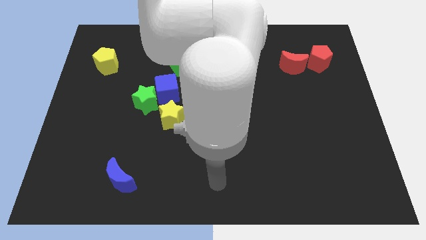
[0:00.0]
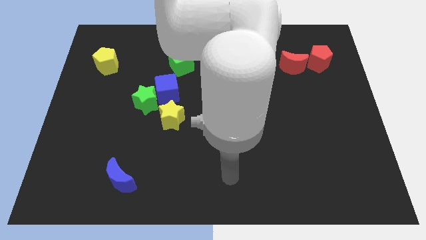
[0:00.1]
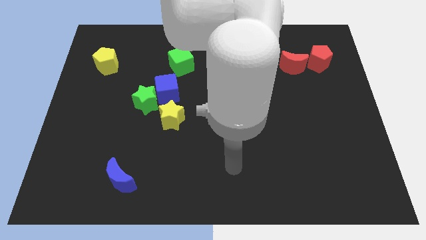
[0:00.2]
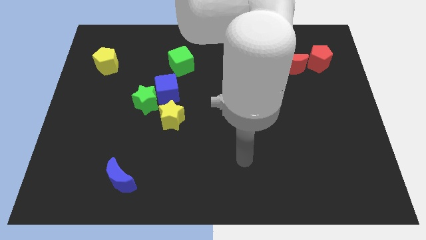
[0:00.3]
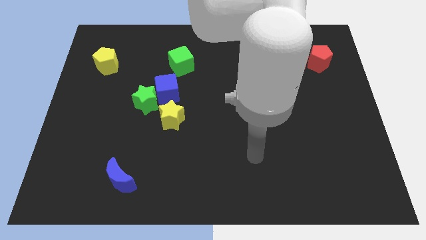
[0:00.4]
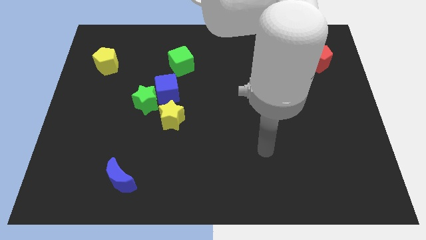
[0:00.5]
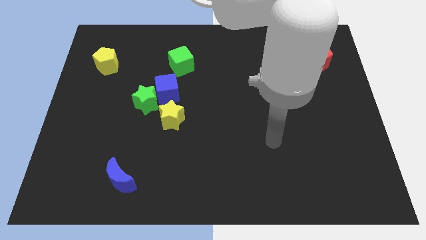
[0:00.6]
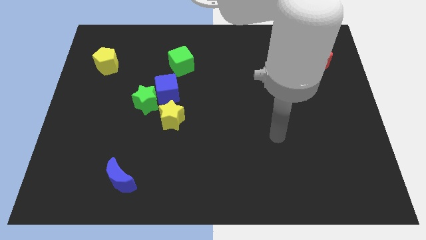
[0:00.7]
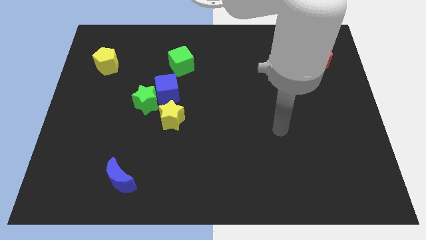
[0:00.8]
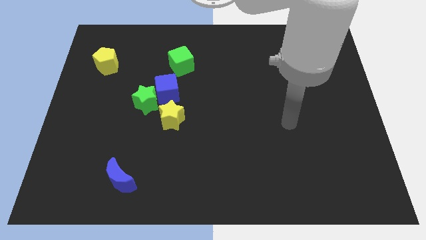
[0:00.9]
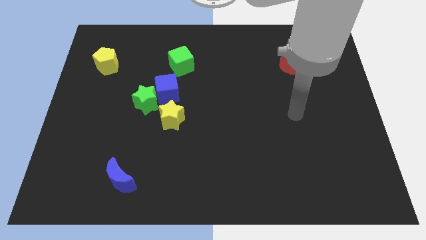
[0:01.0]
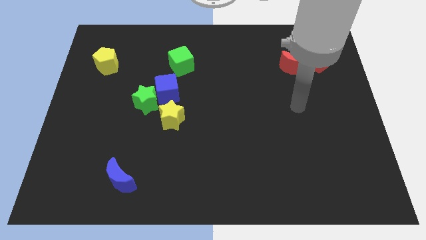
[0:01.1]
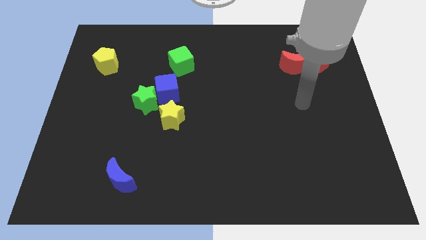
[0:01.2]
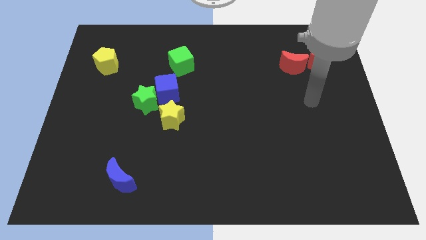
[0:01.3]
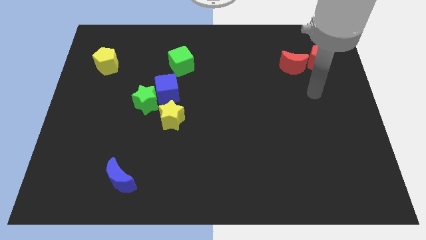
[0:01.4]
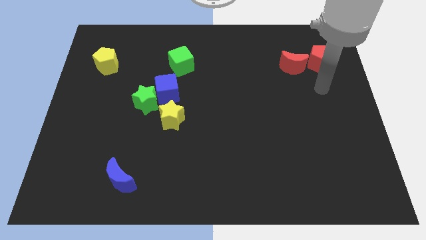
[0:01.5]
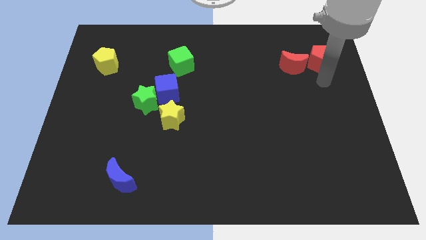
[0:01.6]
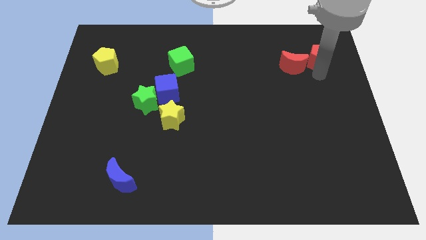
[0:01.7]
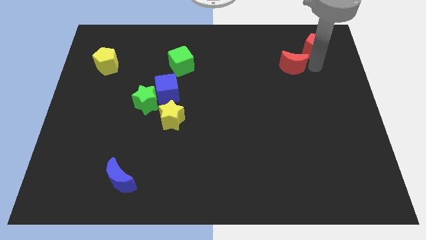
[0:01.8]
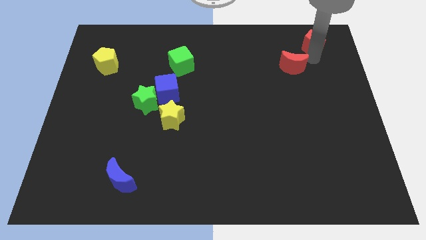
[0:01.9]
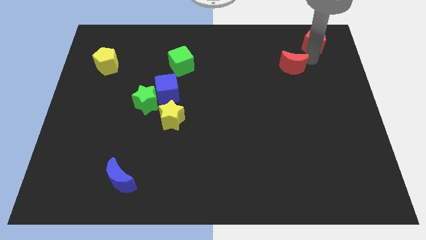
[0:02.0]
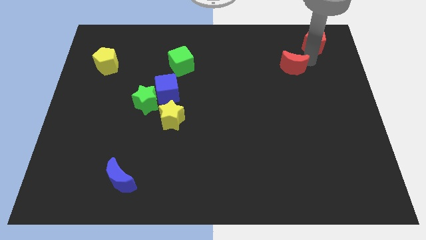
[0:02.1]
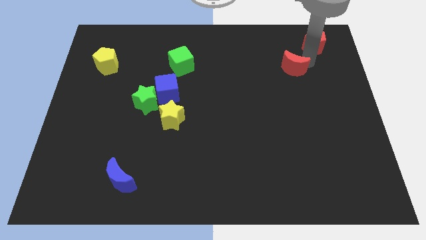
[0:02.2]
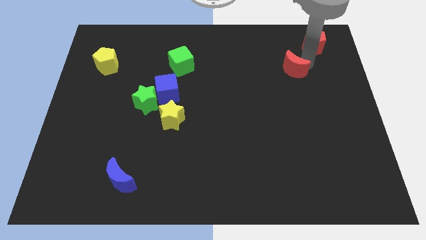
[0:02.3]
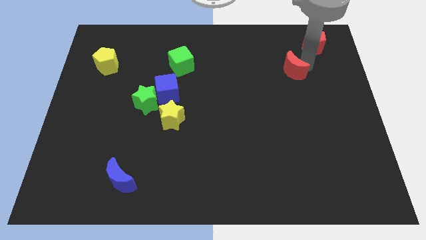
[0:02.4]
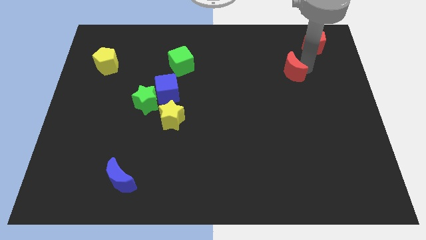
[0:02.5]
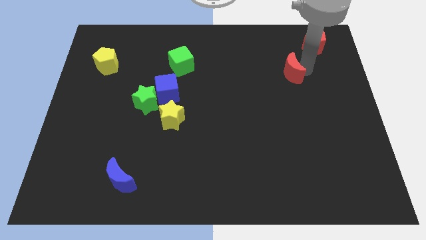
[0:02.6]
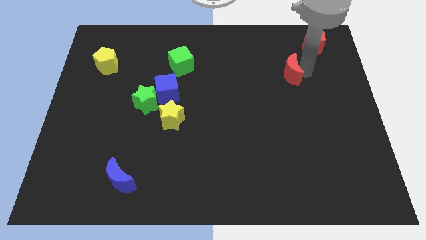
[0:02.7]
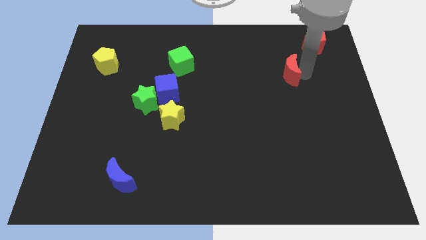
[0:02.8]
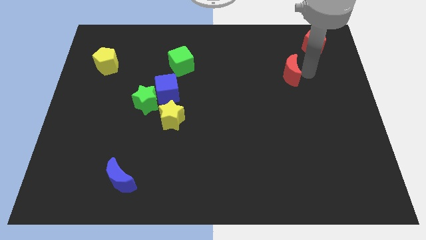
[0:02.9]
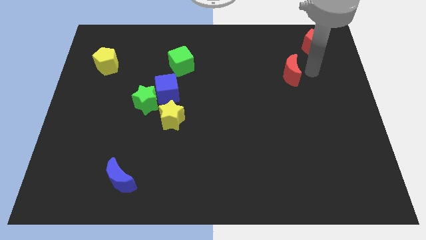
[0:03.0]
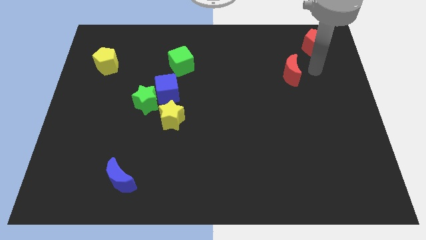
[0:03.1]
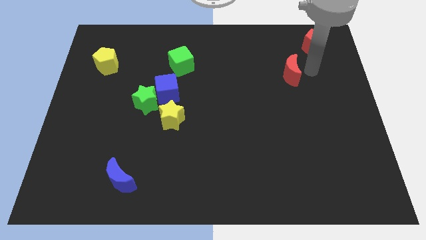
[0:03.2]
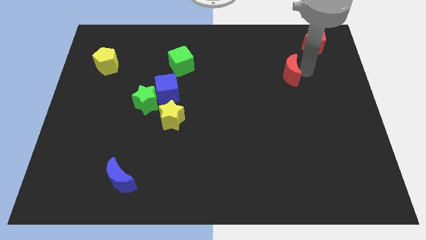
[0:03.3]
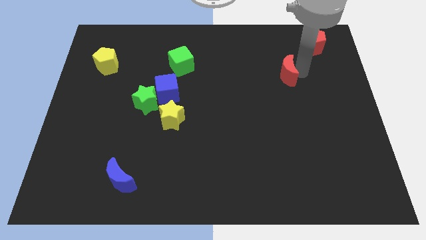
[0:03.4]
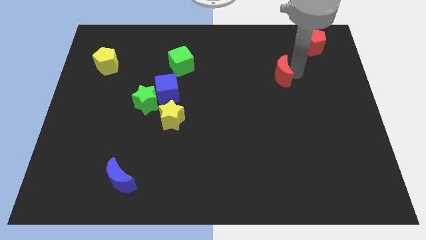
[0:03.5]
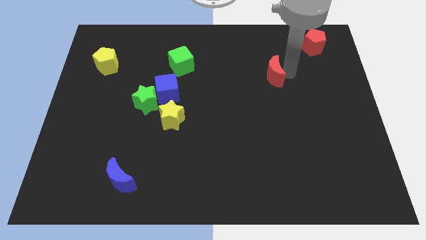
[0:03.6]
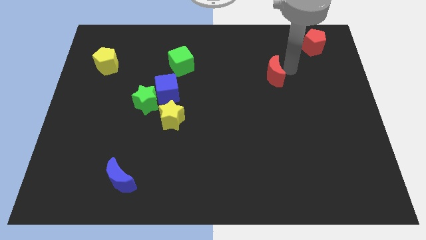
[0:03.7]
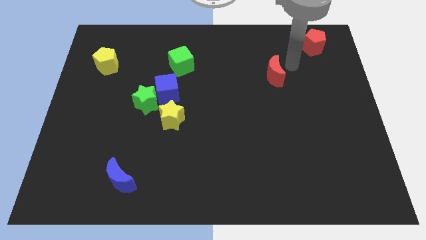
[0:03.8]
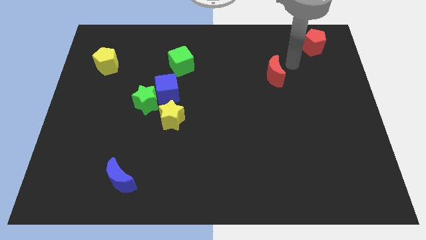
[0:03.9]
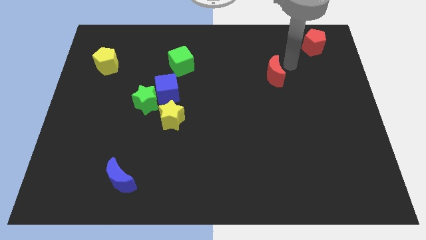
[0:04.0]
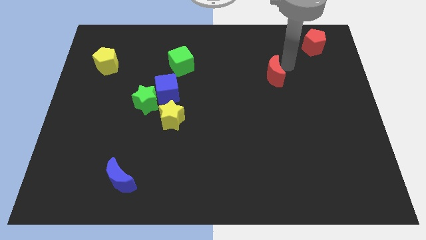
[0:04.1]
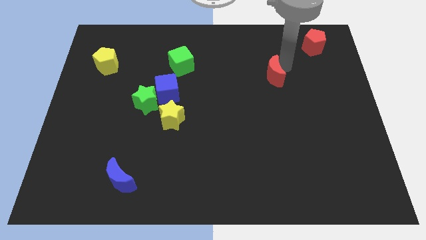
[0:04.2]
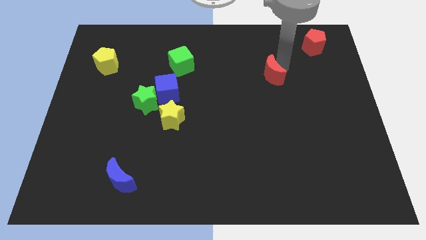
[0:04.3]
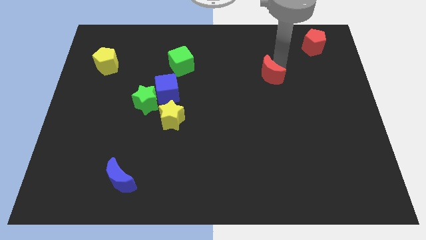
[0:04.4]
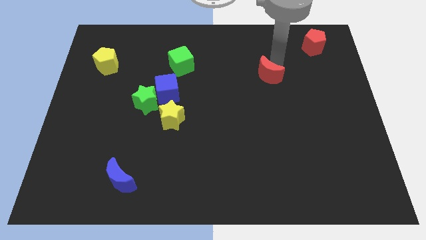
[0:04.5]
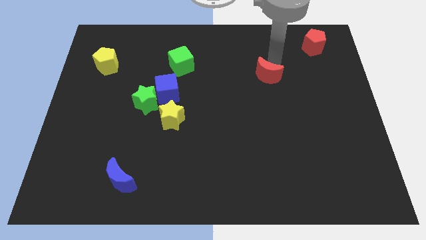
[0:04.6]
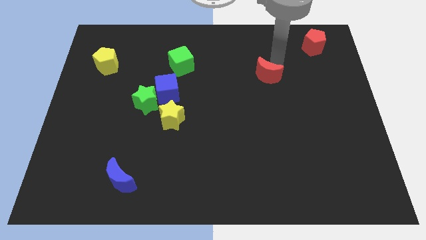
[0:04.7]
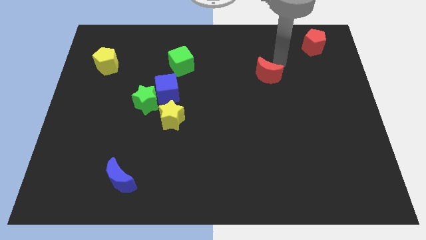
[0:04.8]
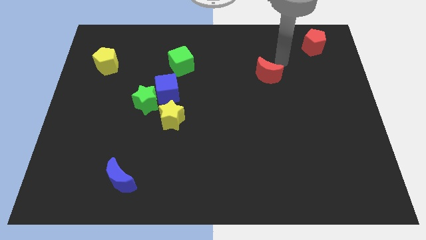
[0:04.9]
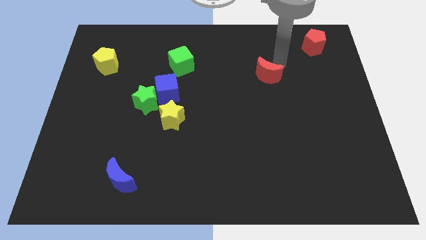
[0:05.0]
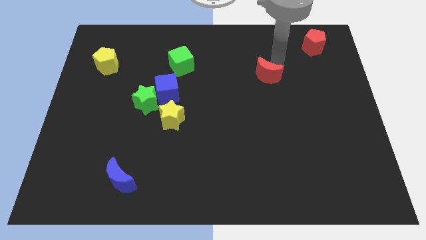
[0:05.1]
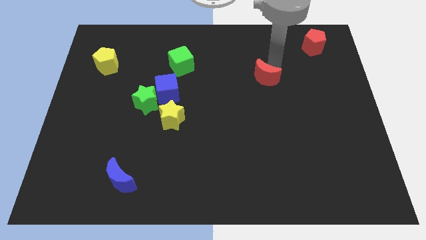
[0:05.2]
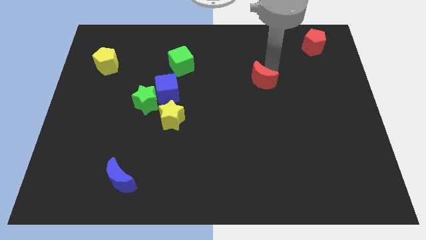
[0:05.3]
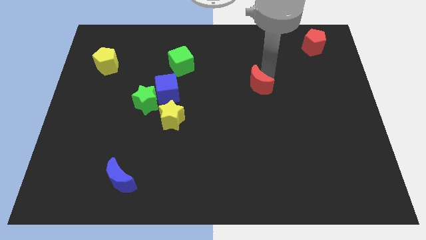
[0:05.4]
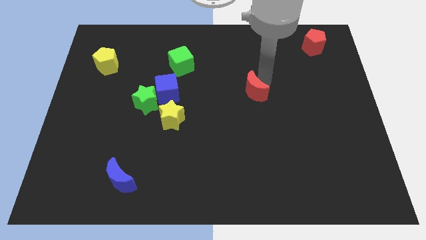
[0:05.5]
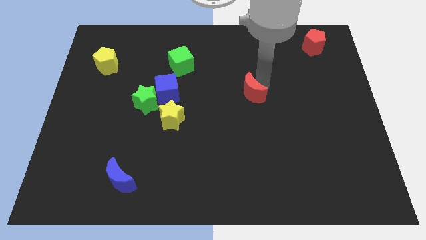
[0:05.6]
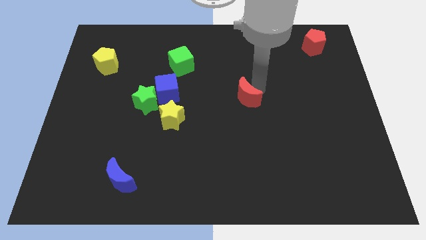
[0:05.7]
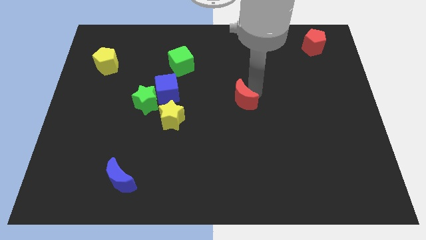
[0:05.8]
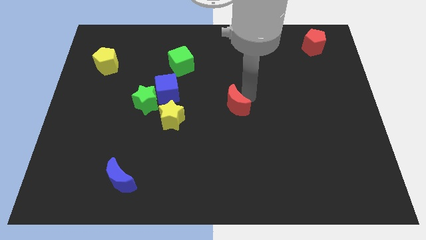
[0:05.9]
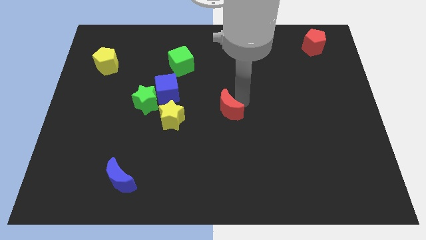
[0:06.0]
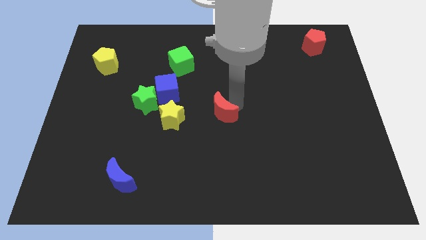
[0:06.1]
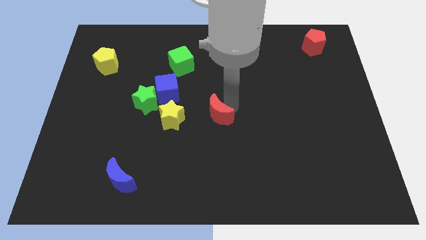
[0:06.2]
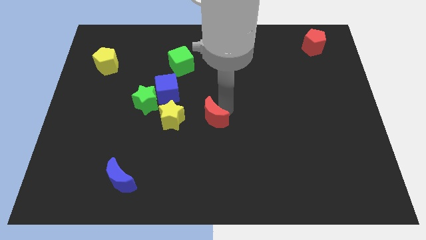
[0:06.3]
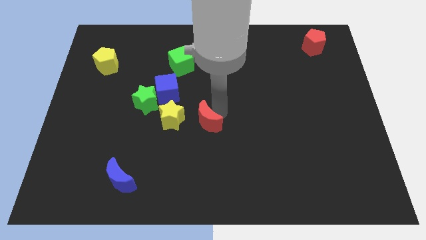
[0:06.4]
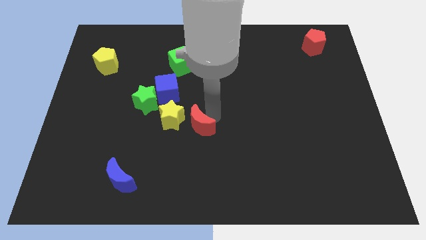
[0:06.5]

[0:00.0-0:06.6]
put the red moon diagonally down and to the right of the yellow star
